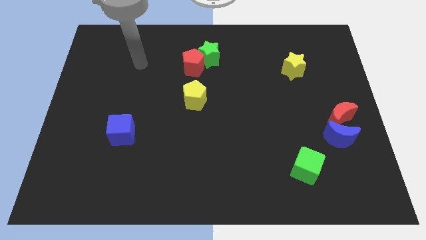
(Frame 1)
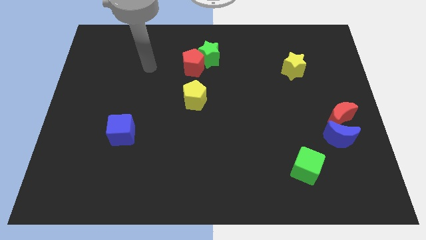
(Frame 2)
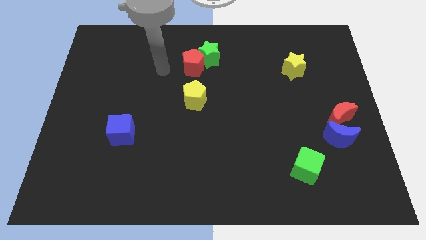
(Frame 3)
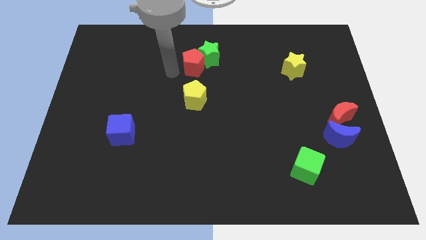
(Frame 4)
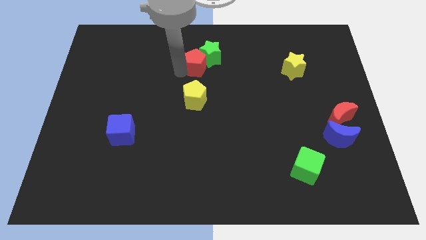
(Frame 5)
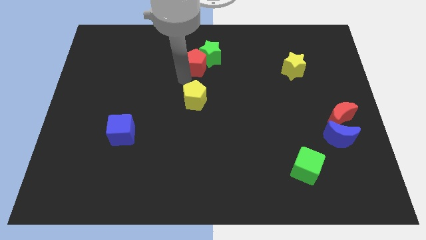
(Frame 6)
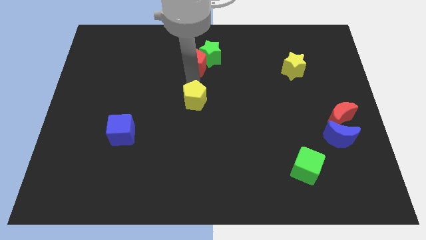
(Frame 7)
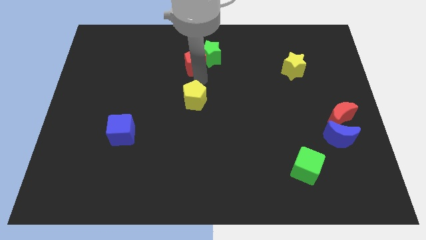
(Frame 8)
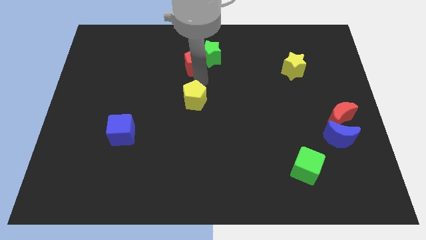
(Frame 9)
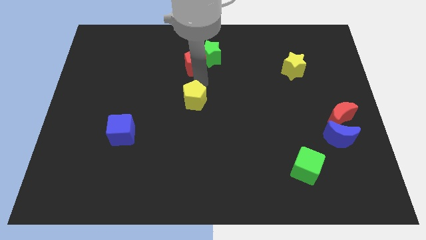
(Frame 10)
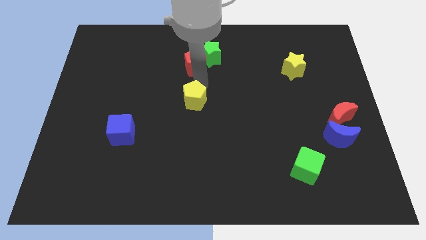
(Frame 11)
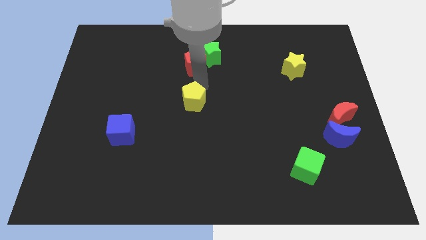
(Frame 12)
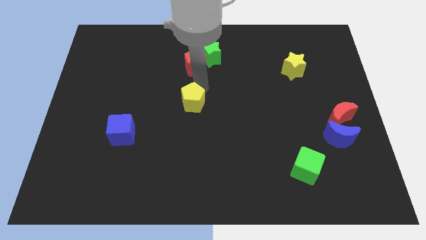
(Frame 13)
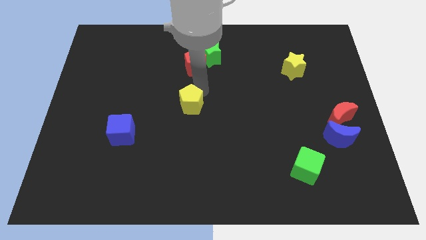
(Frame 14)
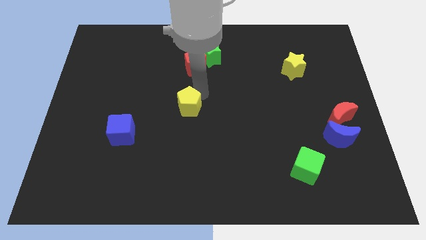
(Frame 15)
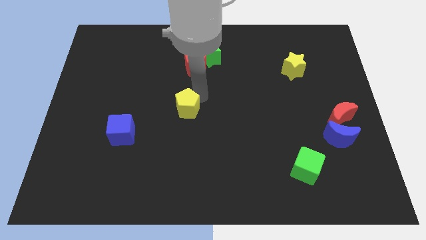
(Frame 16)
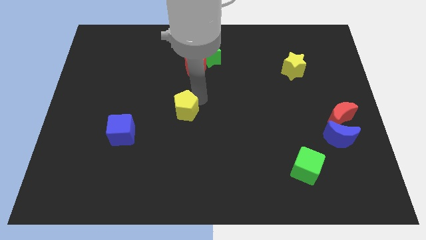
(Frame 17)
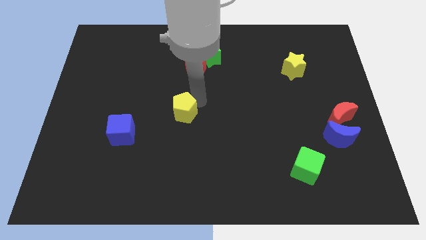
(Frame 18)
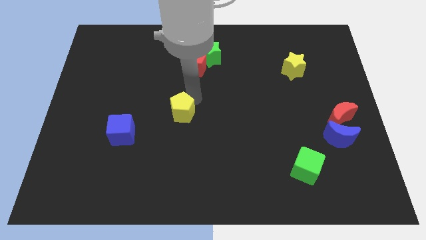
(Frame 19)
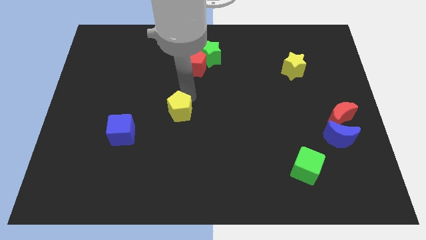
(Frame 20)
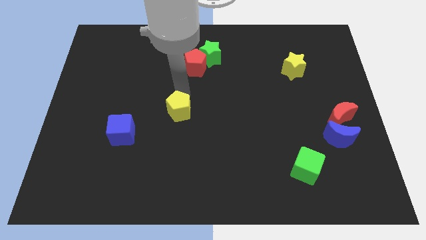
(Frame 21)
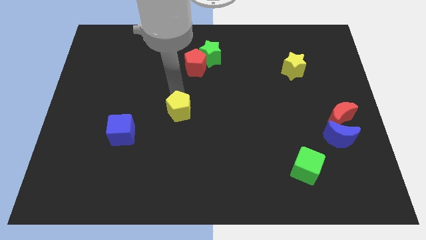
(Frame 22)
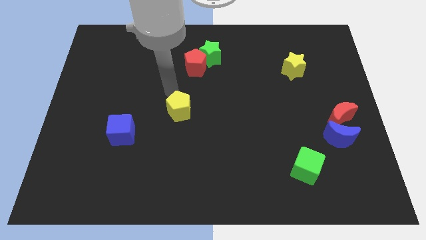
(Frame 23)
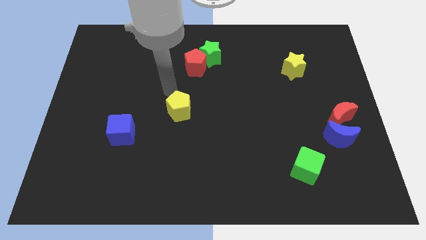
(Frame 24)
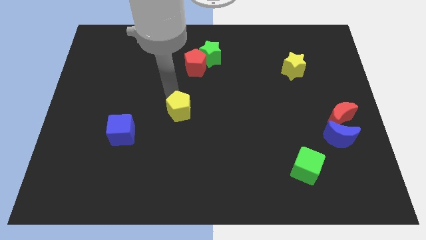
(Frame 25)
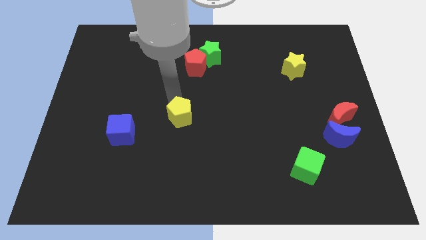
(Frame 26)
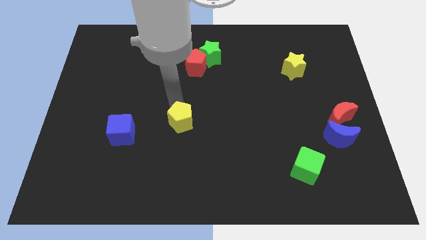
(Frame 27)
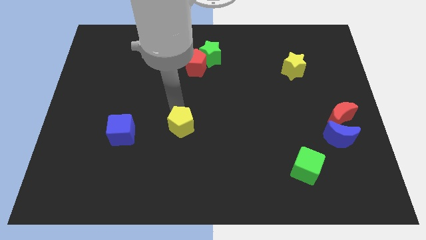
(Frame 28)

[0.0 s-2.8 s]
slide the yellow pentagon somewhat down

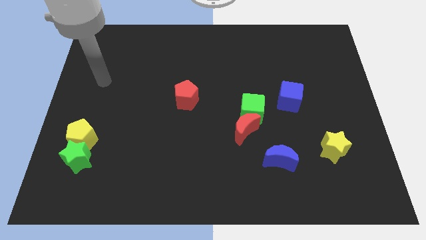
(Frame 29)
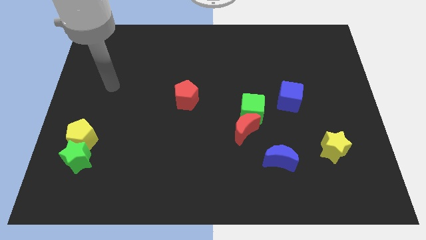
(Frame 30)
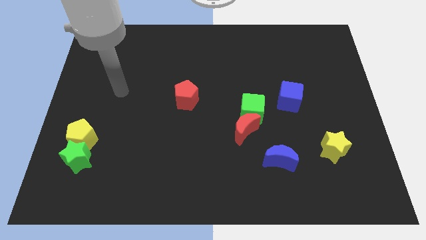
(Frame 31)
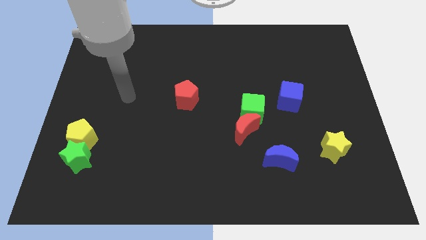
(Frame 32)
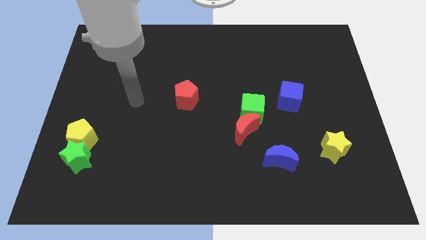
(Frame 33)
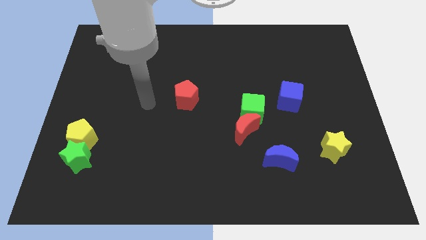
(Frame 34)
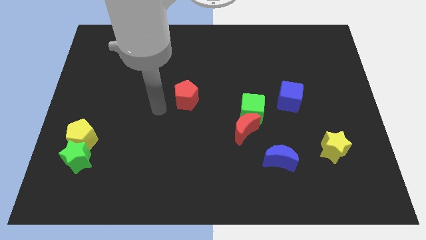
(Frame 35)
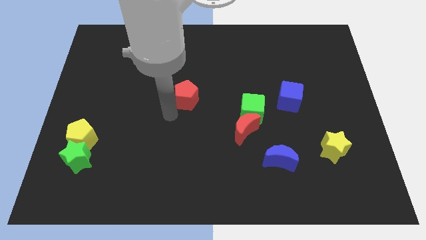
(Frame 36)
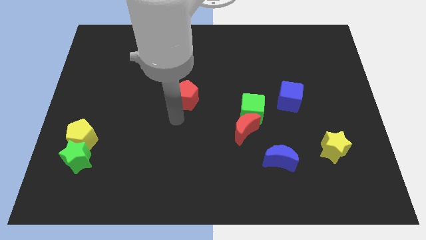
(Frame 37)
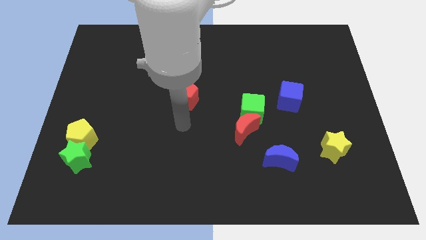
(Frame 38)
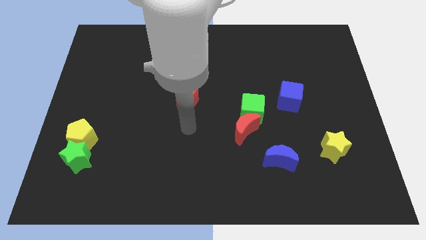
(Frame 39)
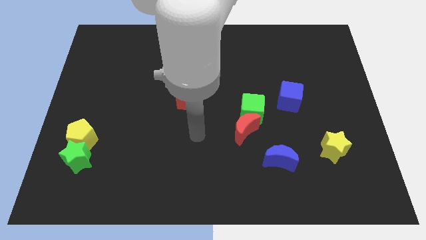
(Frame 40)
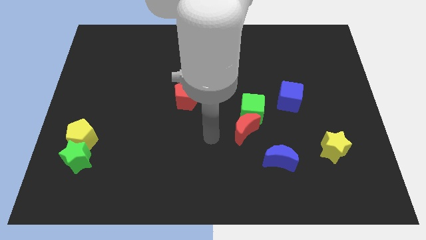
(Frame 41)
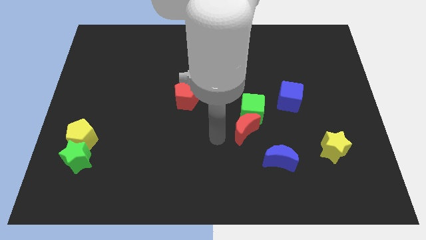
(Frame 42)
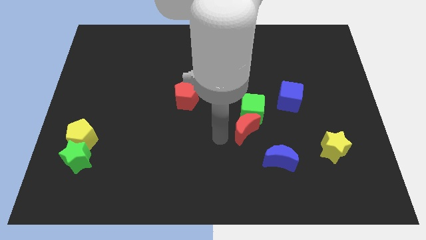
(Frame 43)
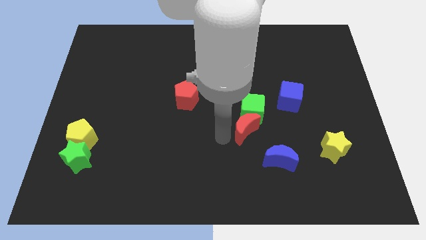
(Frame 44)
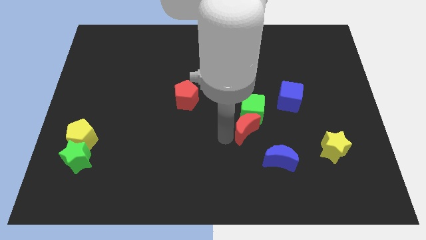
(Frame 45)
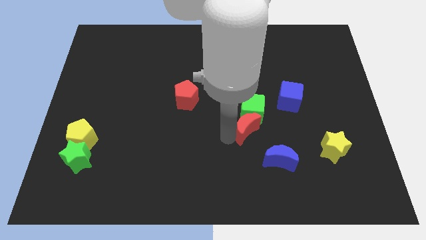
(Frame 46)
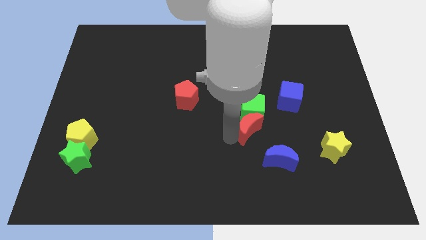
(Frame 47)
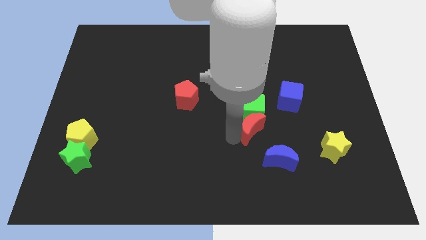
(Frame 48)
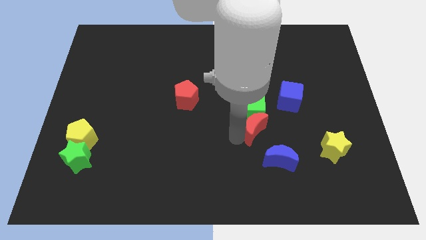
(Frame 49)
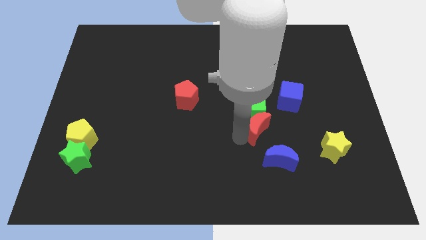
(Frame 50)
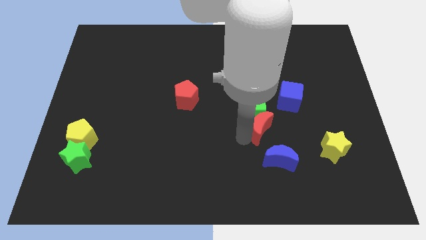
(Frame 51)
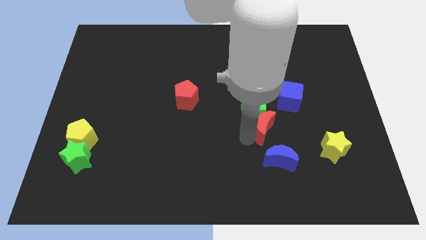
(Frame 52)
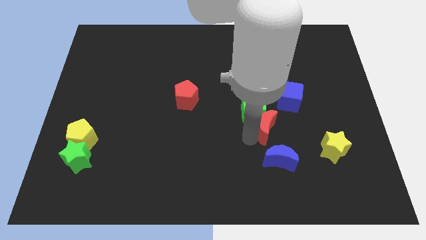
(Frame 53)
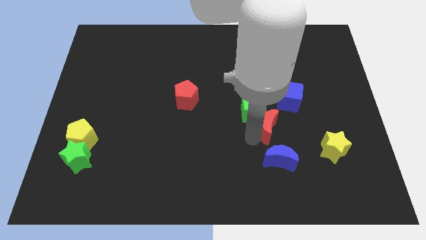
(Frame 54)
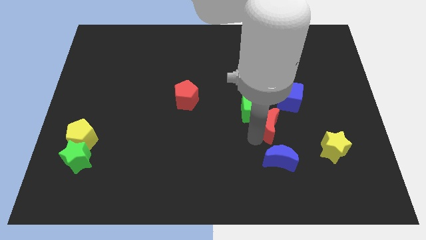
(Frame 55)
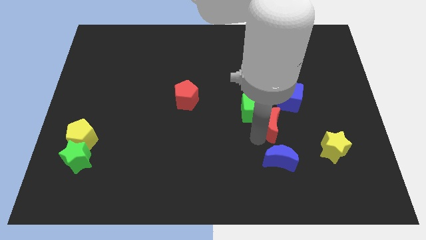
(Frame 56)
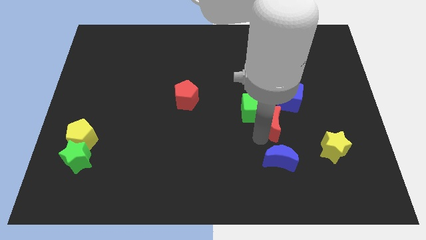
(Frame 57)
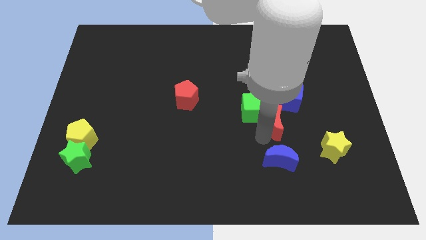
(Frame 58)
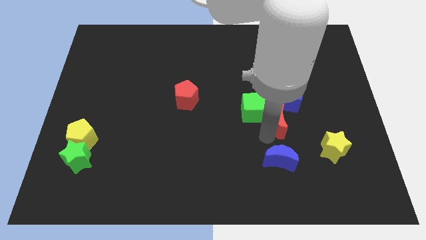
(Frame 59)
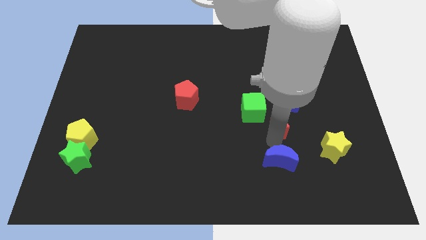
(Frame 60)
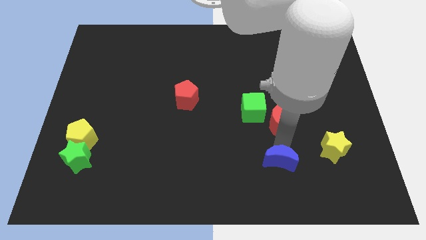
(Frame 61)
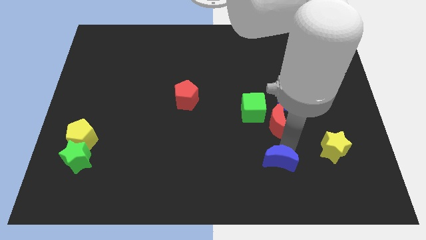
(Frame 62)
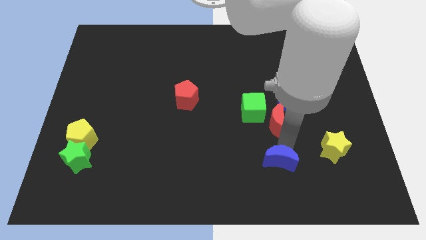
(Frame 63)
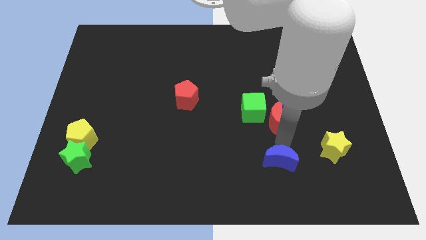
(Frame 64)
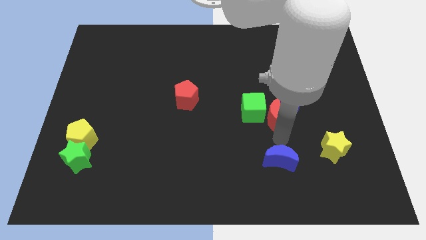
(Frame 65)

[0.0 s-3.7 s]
slide the red moon diagonally up and to the right a little

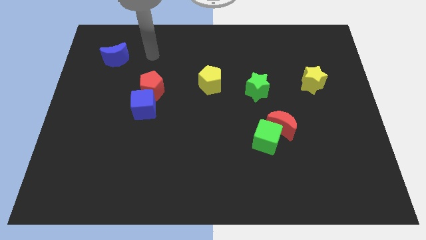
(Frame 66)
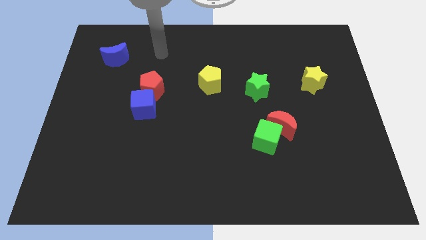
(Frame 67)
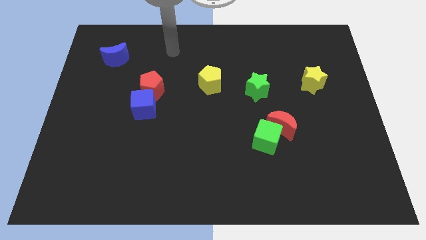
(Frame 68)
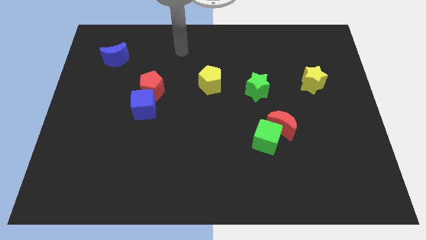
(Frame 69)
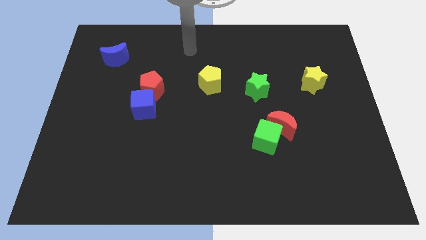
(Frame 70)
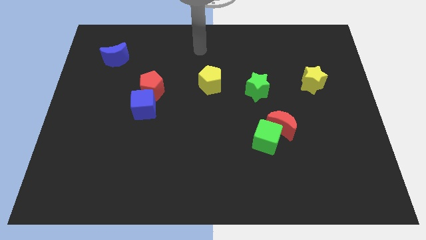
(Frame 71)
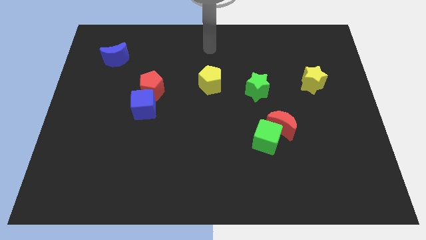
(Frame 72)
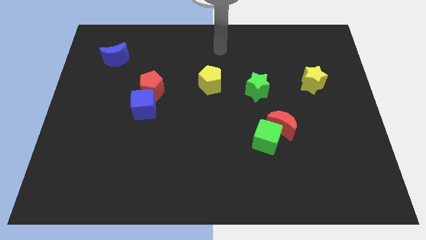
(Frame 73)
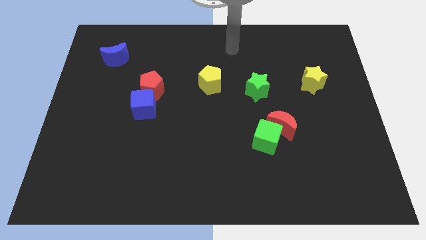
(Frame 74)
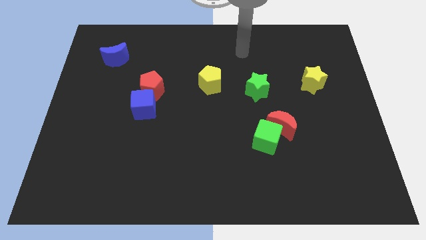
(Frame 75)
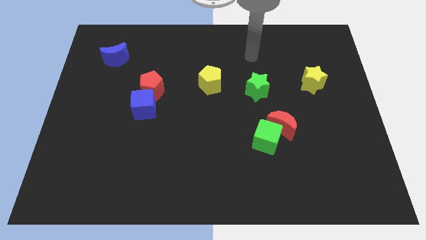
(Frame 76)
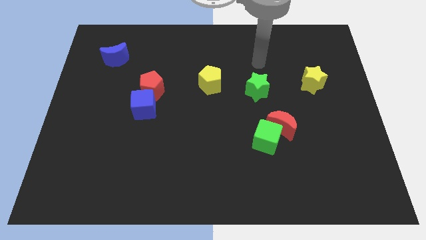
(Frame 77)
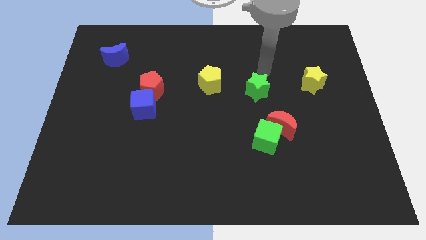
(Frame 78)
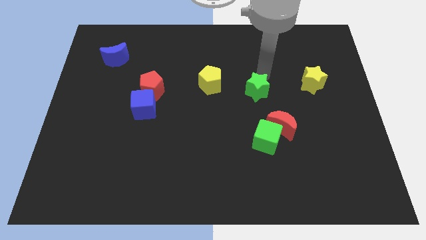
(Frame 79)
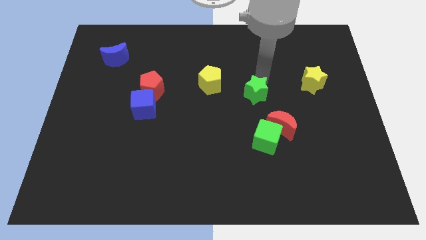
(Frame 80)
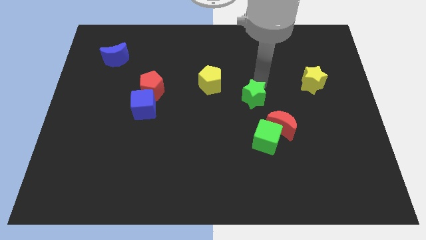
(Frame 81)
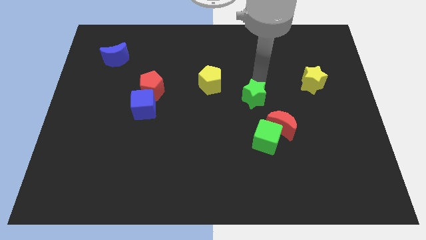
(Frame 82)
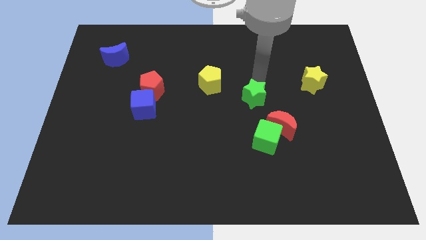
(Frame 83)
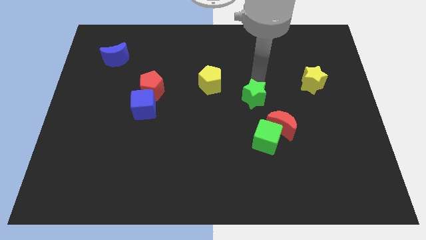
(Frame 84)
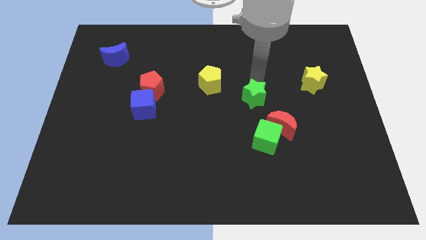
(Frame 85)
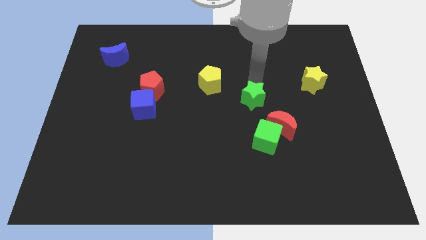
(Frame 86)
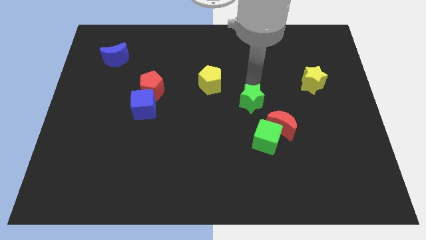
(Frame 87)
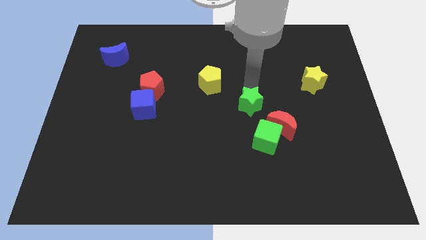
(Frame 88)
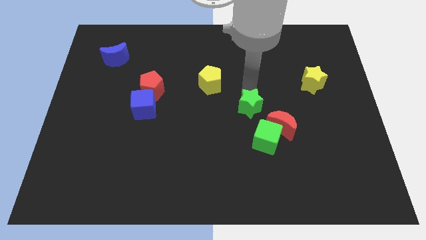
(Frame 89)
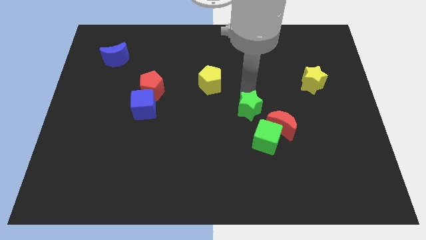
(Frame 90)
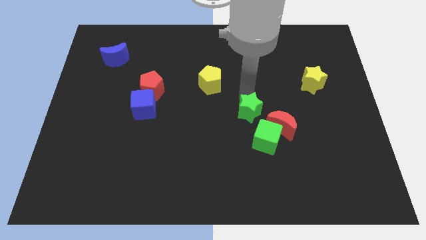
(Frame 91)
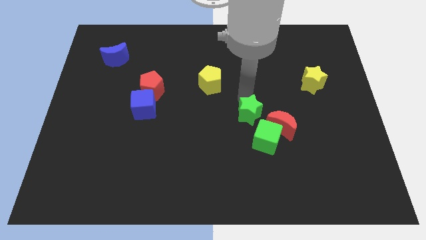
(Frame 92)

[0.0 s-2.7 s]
slide the green star down somewhat
